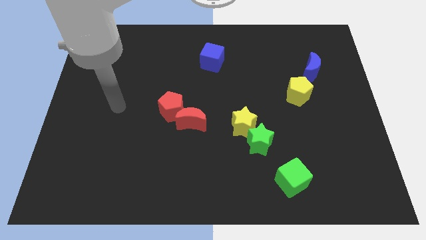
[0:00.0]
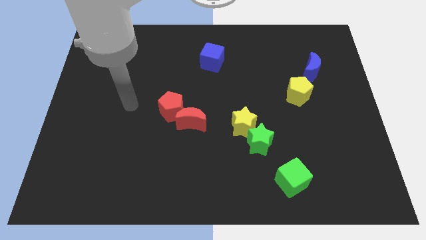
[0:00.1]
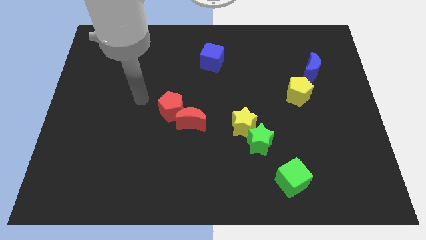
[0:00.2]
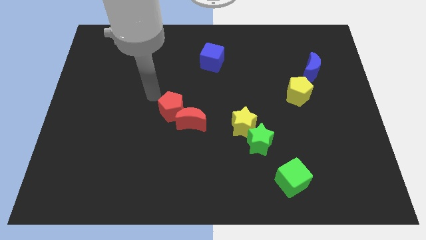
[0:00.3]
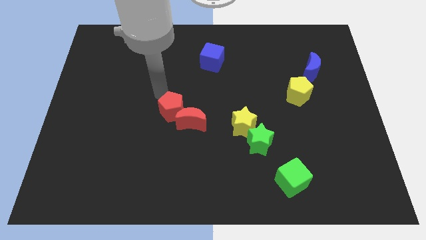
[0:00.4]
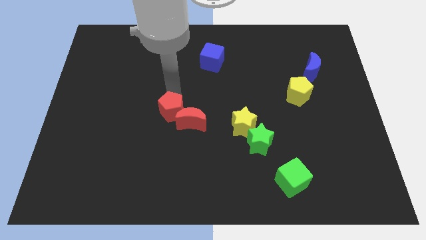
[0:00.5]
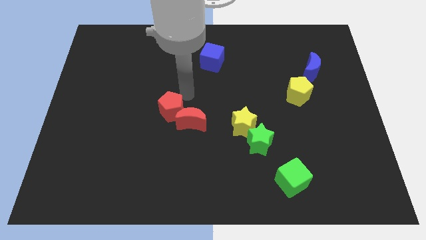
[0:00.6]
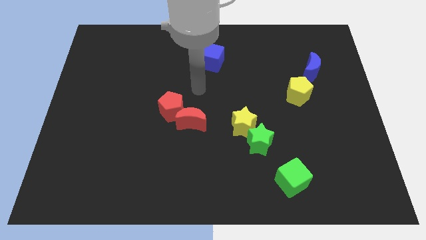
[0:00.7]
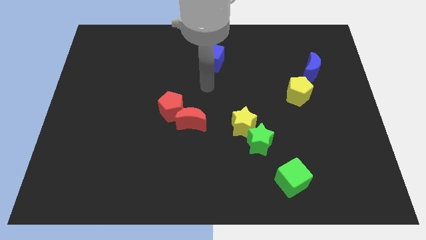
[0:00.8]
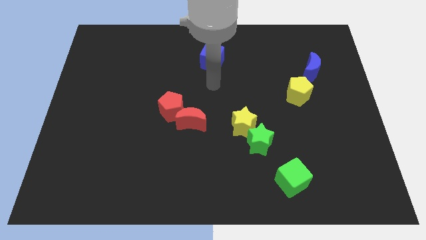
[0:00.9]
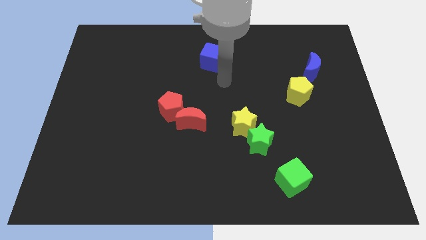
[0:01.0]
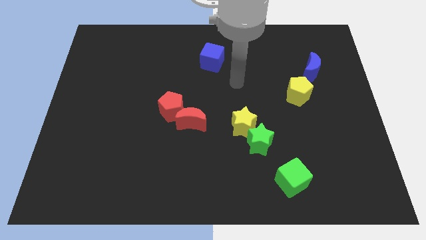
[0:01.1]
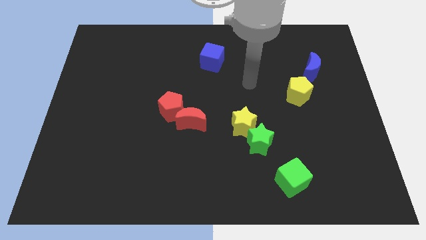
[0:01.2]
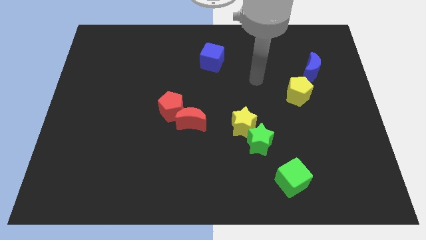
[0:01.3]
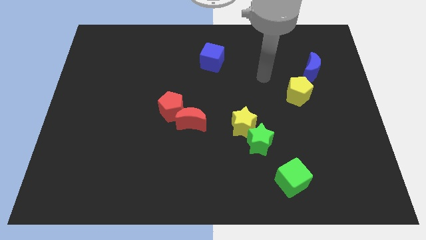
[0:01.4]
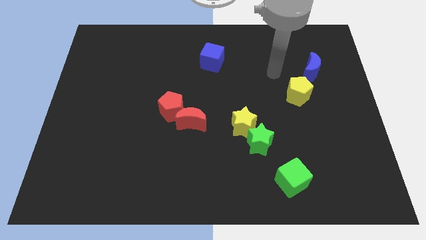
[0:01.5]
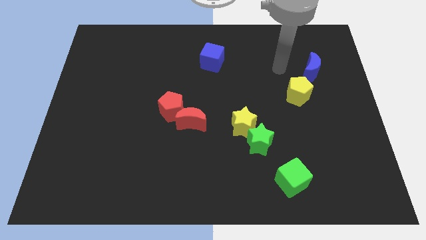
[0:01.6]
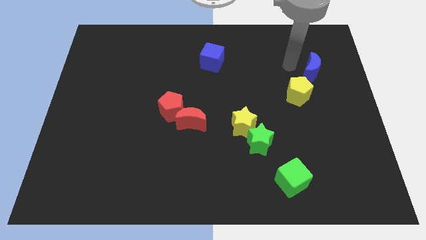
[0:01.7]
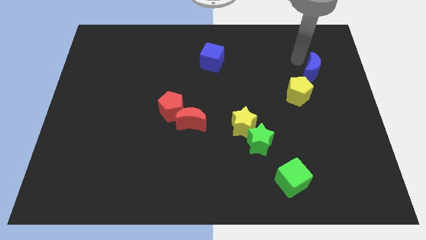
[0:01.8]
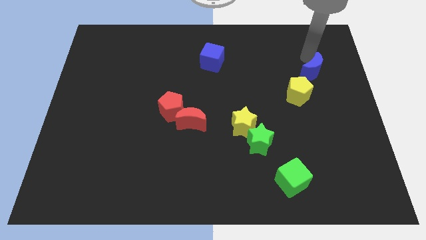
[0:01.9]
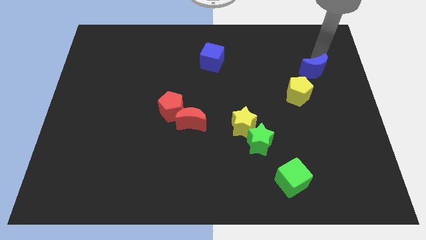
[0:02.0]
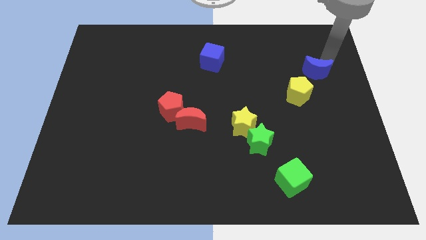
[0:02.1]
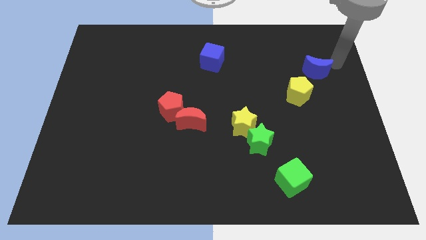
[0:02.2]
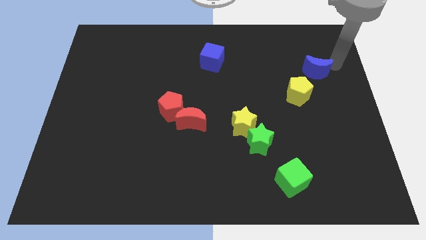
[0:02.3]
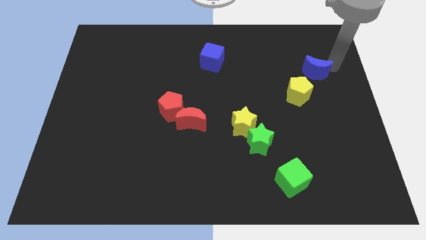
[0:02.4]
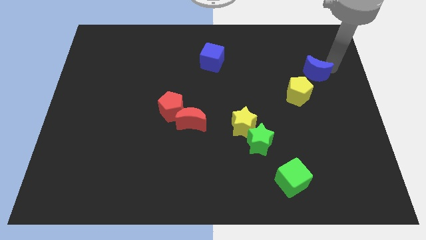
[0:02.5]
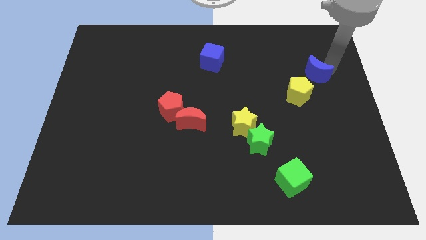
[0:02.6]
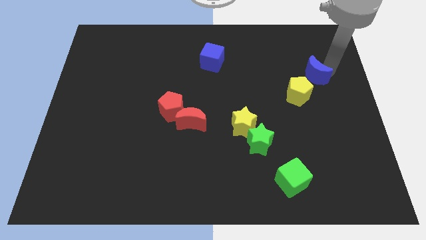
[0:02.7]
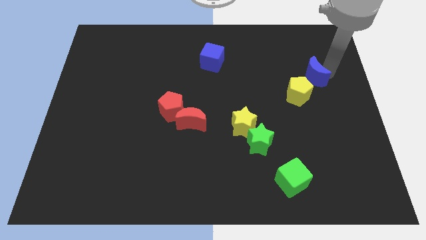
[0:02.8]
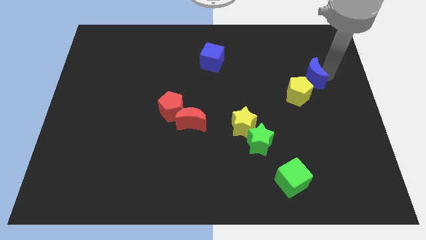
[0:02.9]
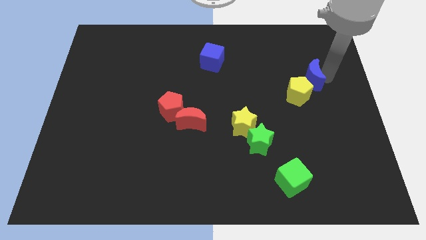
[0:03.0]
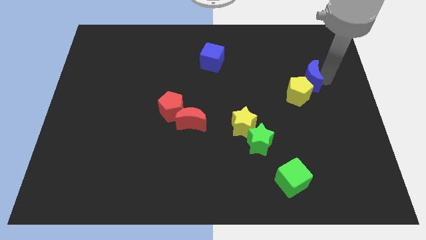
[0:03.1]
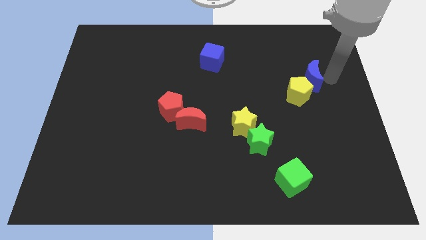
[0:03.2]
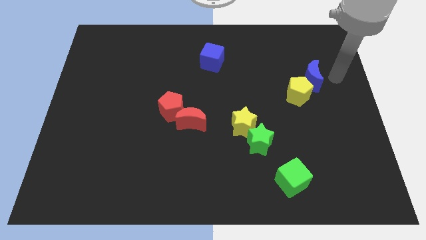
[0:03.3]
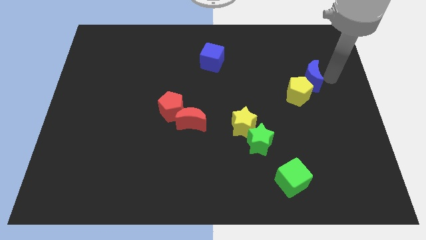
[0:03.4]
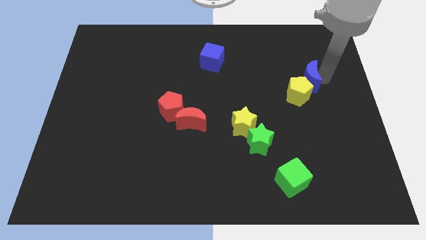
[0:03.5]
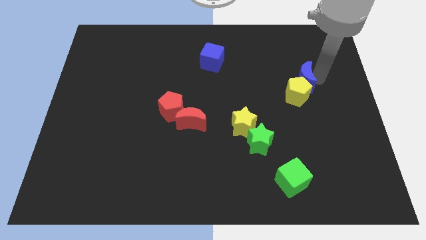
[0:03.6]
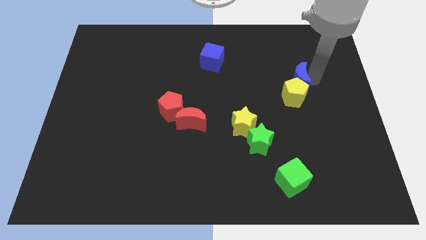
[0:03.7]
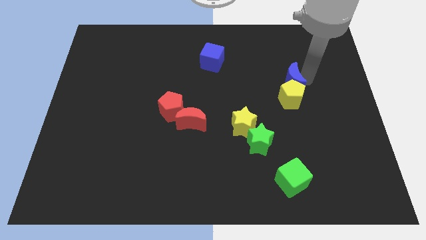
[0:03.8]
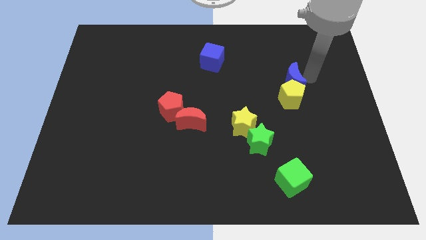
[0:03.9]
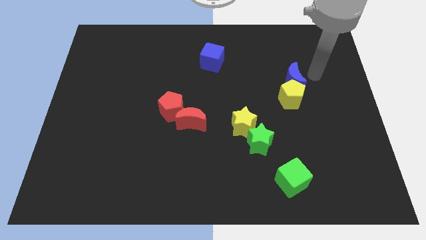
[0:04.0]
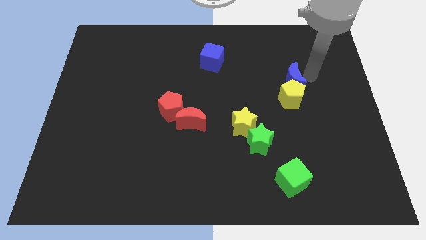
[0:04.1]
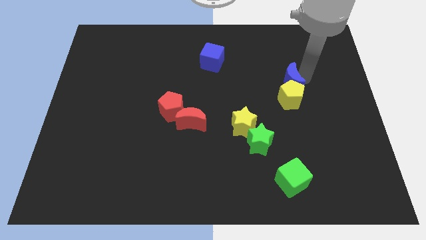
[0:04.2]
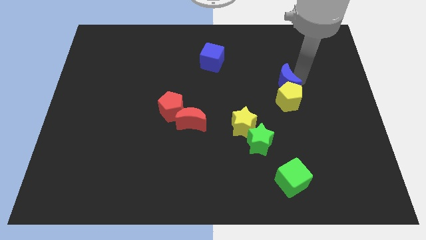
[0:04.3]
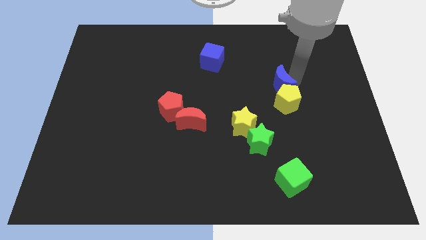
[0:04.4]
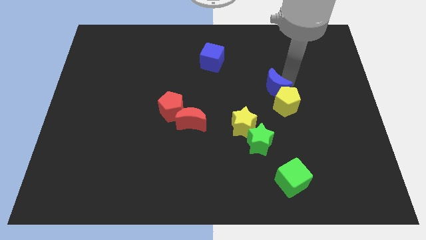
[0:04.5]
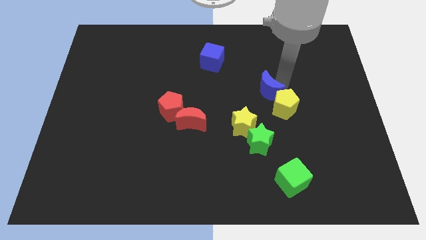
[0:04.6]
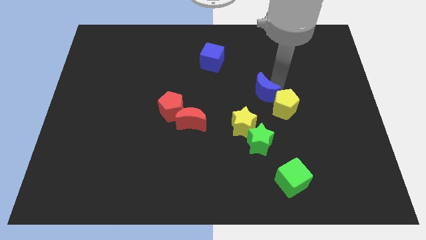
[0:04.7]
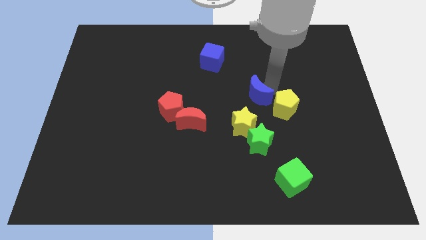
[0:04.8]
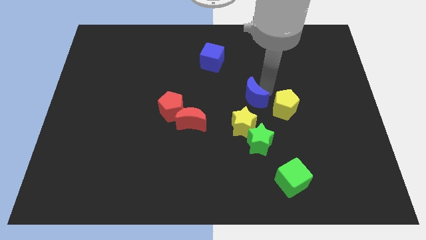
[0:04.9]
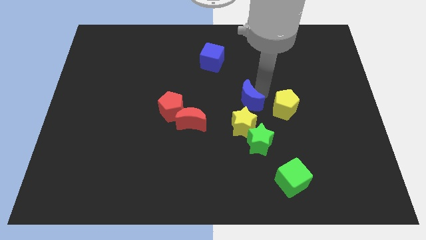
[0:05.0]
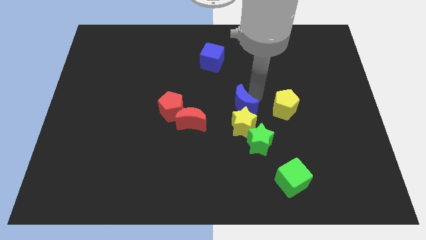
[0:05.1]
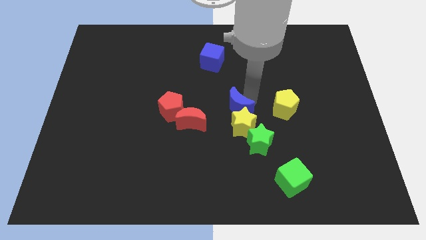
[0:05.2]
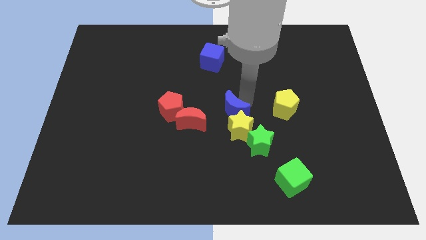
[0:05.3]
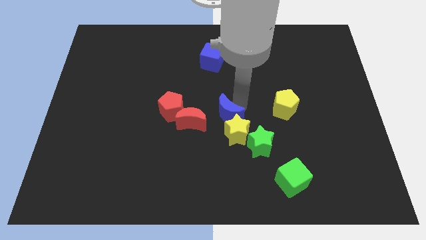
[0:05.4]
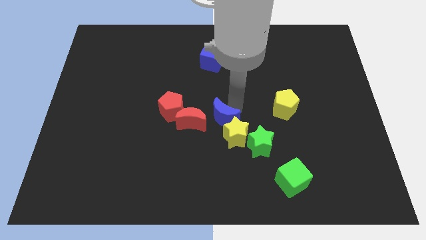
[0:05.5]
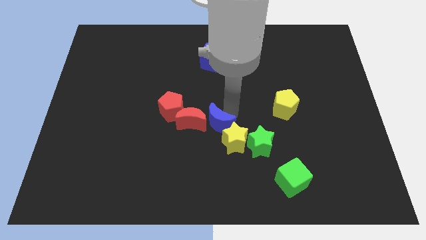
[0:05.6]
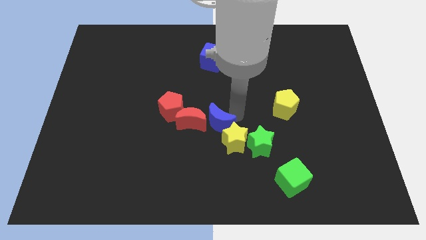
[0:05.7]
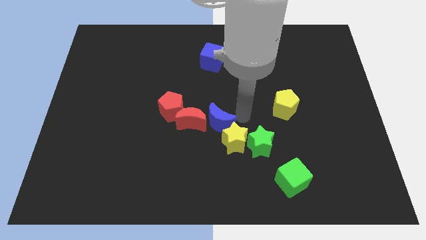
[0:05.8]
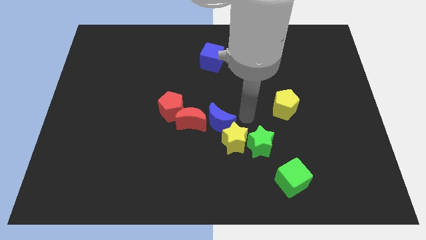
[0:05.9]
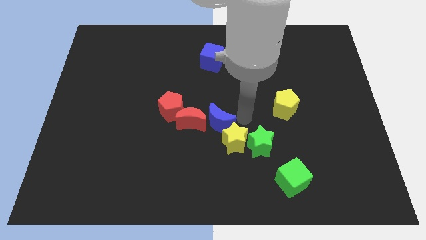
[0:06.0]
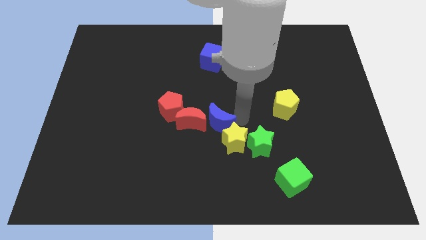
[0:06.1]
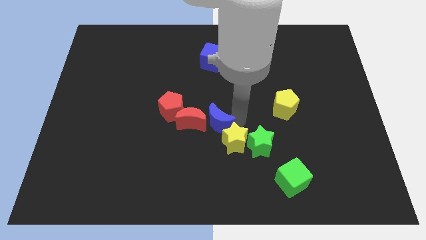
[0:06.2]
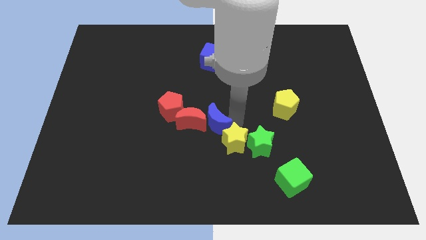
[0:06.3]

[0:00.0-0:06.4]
move the blue moon to the bottom right of the red pentagon

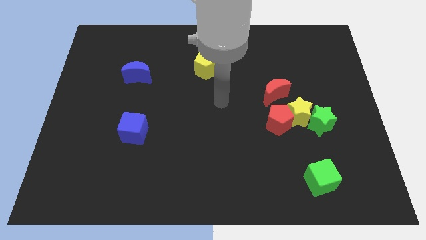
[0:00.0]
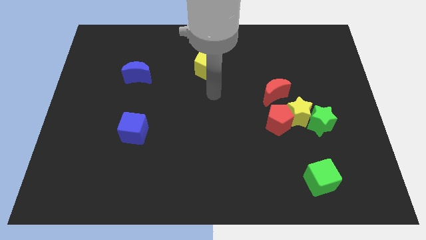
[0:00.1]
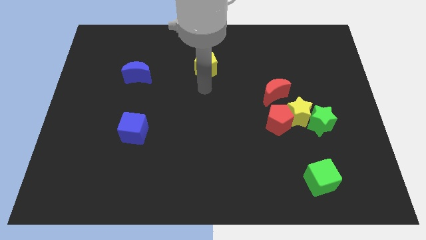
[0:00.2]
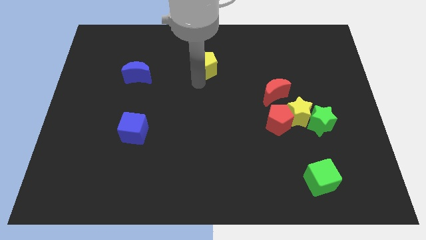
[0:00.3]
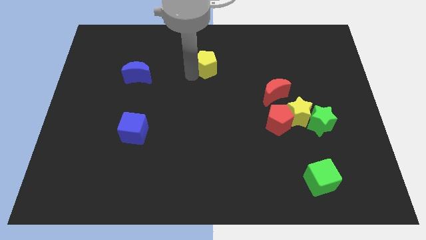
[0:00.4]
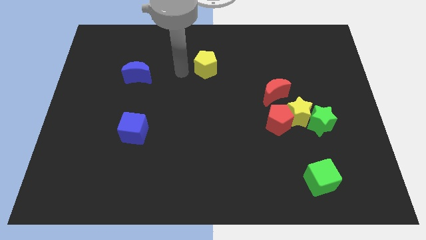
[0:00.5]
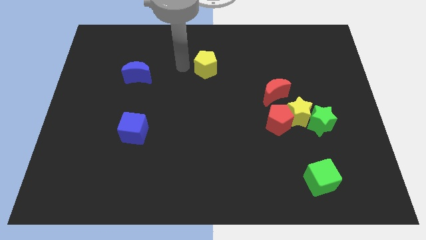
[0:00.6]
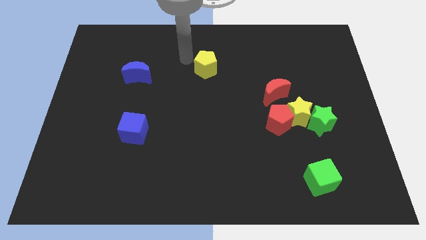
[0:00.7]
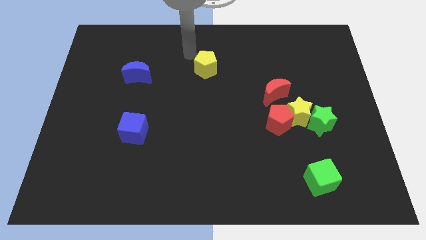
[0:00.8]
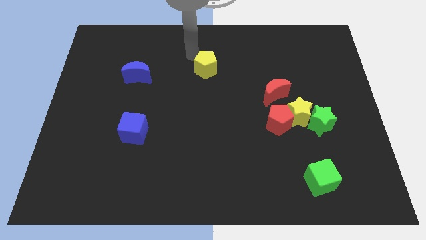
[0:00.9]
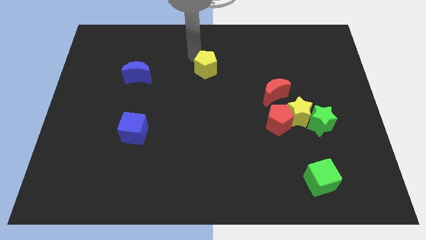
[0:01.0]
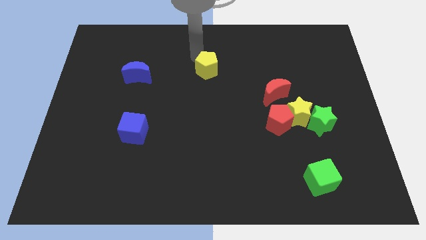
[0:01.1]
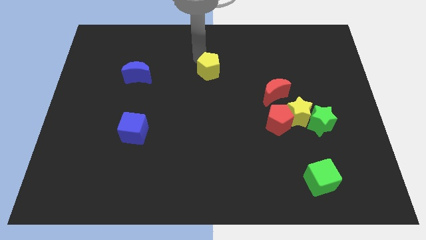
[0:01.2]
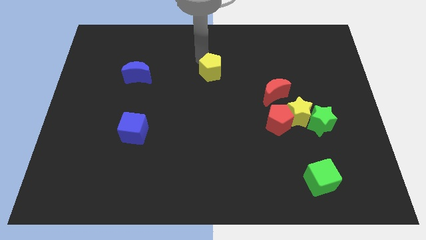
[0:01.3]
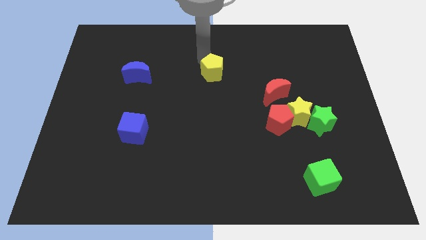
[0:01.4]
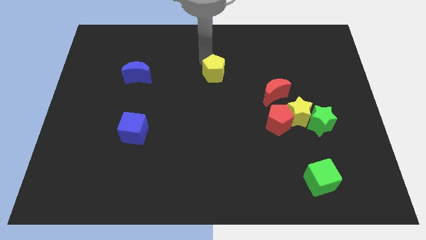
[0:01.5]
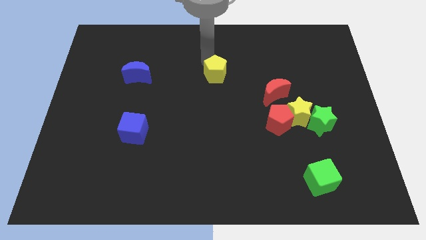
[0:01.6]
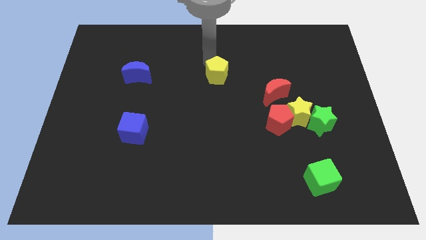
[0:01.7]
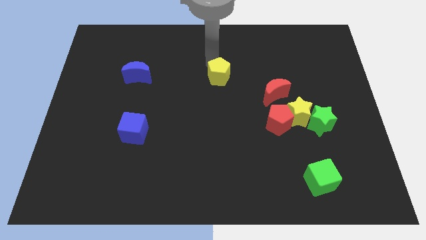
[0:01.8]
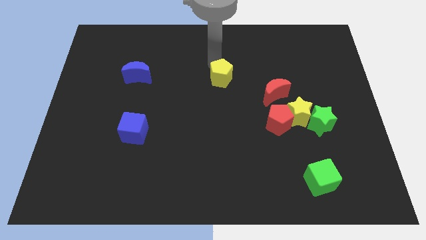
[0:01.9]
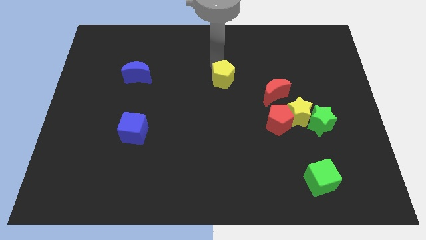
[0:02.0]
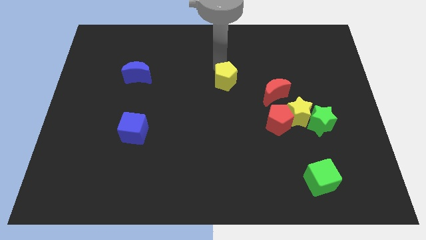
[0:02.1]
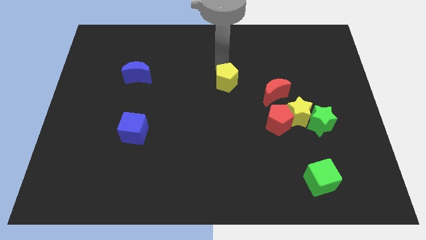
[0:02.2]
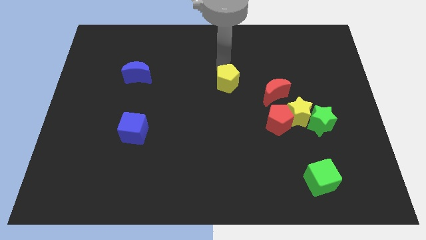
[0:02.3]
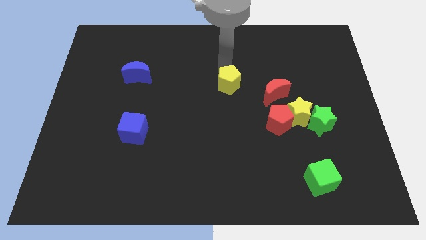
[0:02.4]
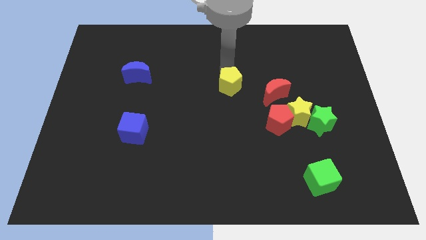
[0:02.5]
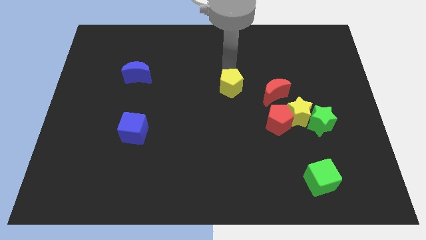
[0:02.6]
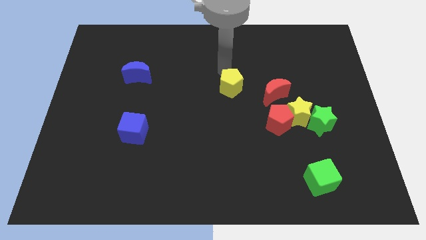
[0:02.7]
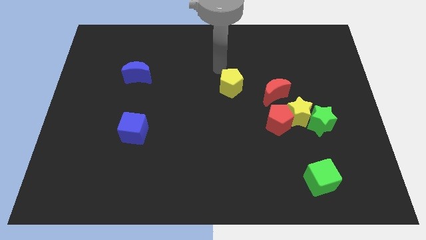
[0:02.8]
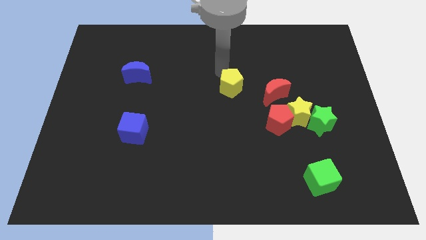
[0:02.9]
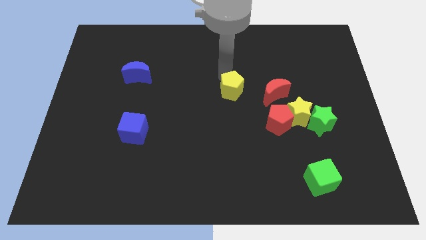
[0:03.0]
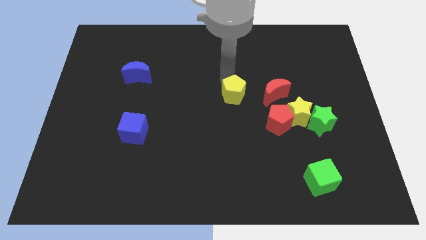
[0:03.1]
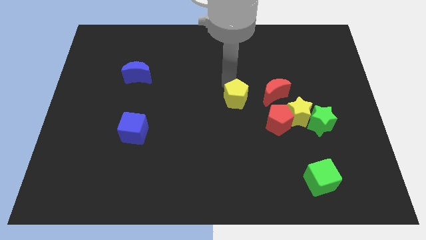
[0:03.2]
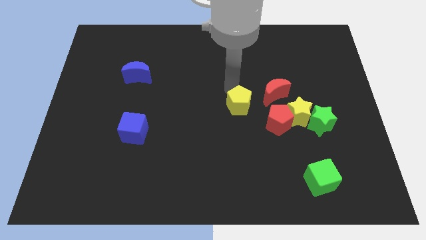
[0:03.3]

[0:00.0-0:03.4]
move the yellow pentagon just left of the yellow star
